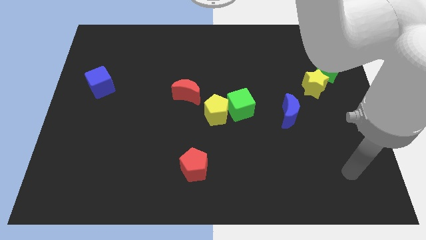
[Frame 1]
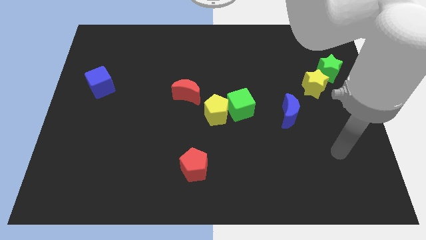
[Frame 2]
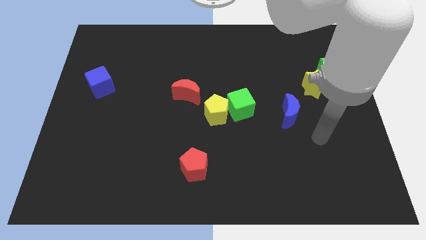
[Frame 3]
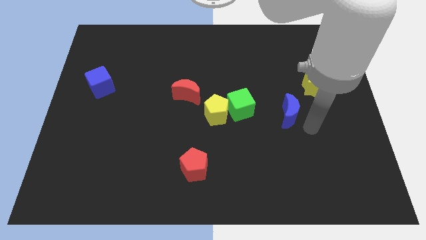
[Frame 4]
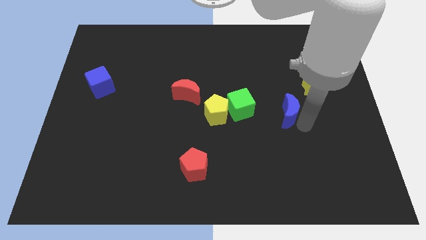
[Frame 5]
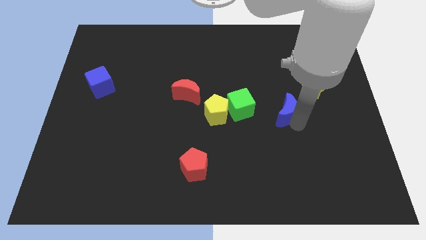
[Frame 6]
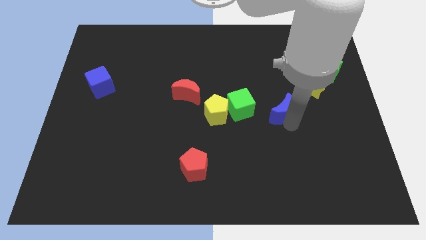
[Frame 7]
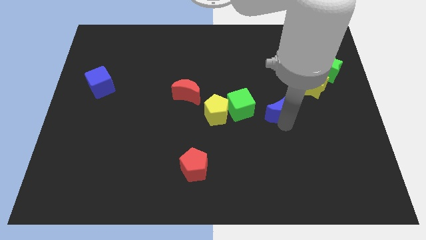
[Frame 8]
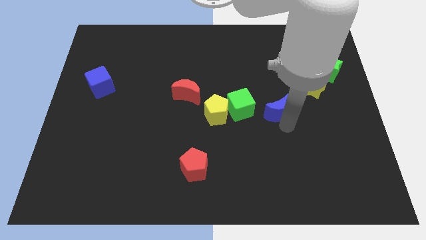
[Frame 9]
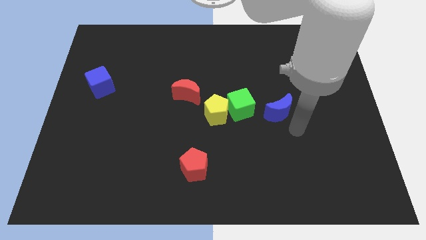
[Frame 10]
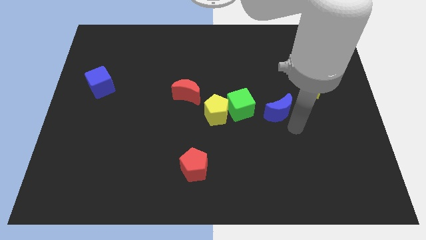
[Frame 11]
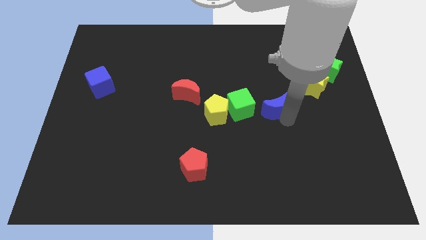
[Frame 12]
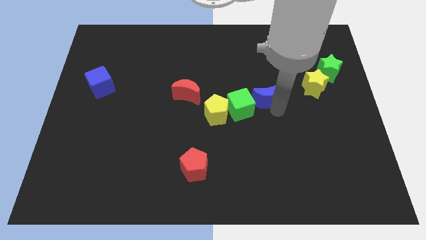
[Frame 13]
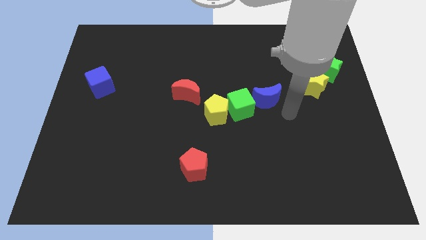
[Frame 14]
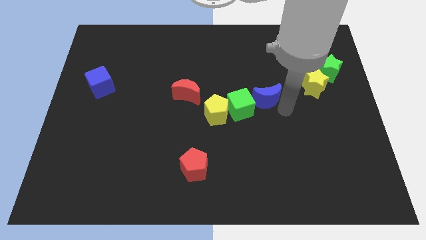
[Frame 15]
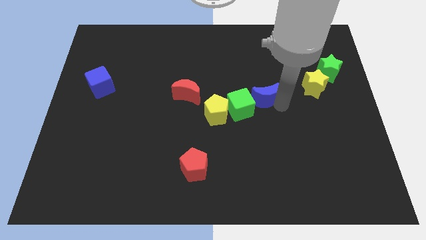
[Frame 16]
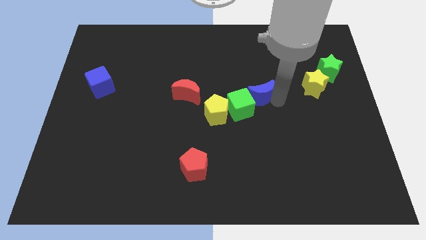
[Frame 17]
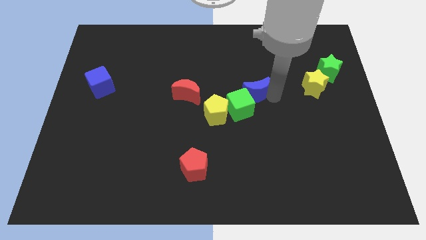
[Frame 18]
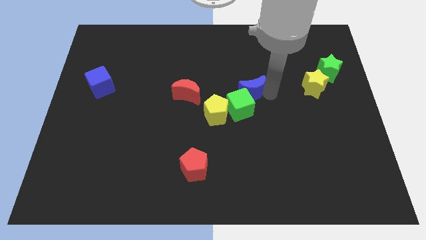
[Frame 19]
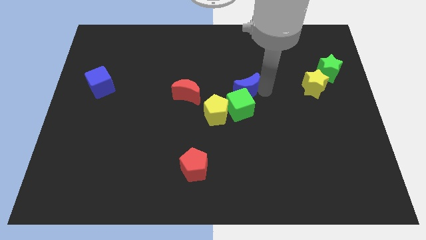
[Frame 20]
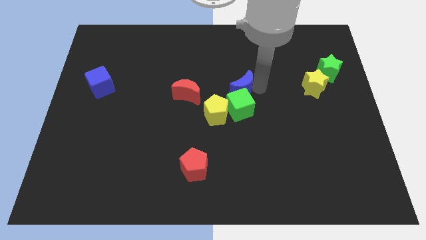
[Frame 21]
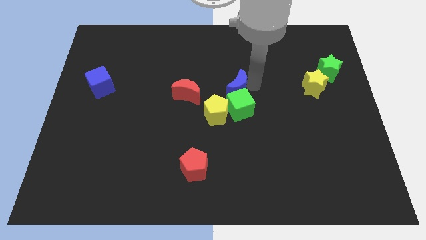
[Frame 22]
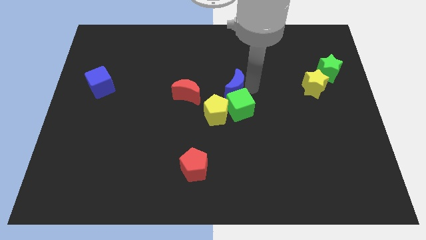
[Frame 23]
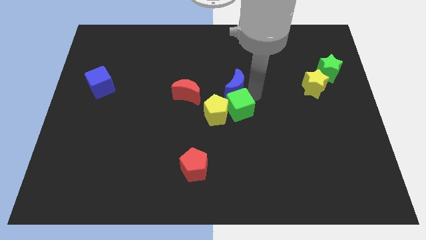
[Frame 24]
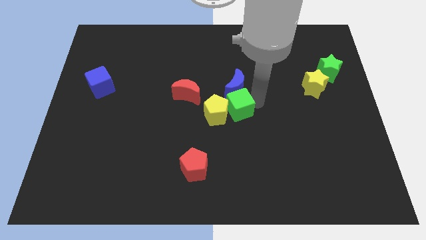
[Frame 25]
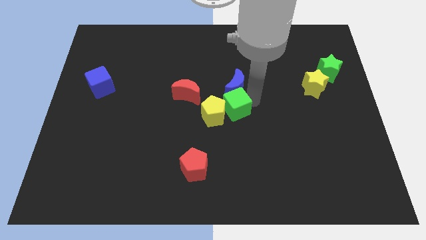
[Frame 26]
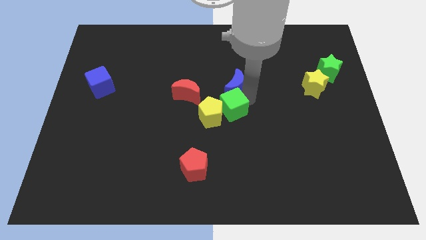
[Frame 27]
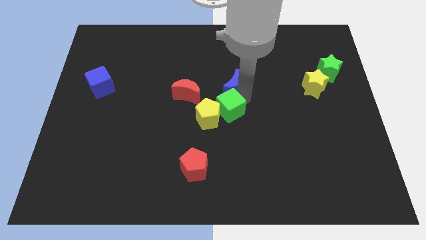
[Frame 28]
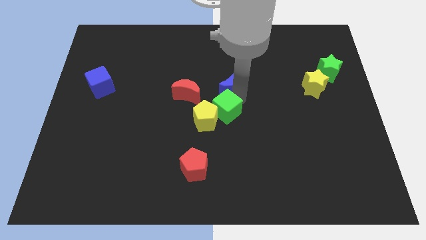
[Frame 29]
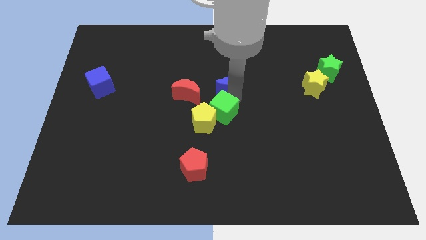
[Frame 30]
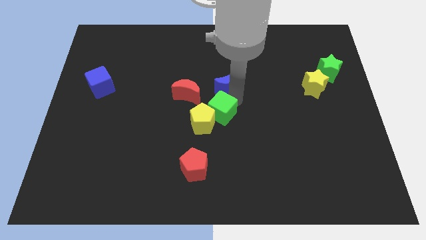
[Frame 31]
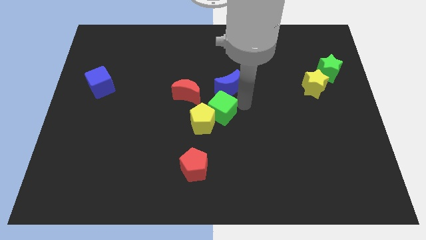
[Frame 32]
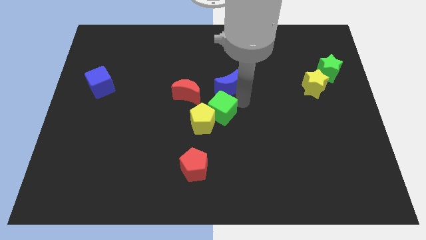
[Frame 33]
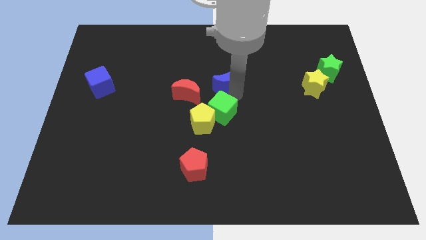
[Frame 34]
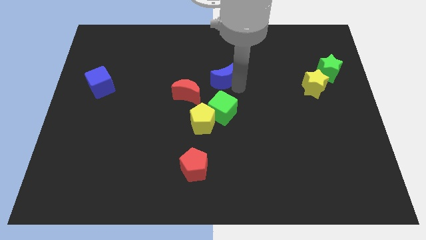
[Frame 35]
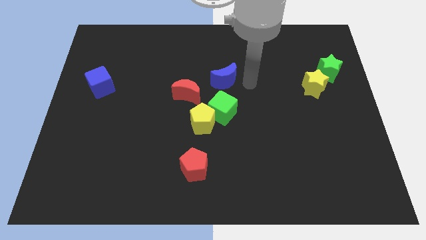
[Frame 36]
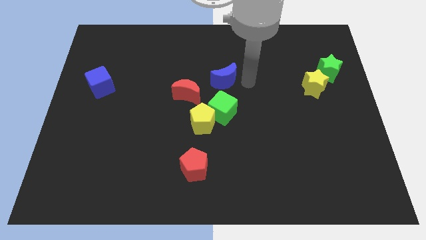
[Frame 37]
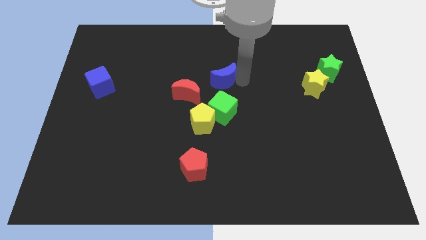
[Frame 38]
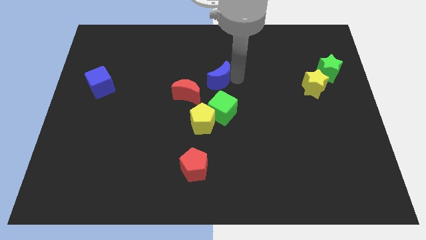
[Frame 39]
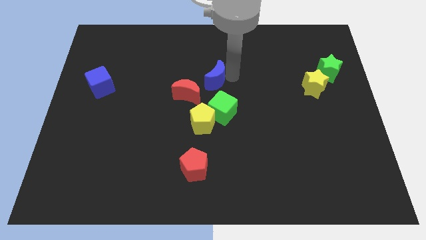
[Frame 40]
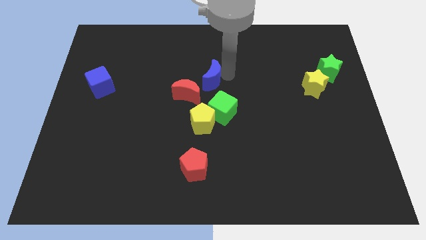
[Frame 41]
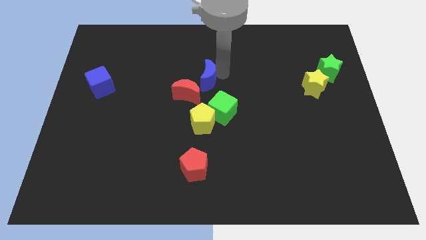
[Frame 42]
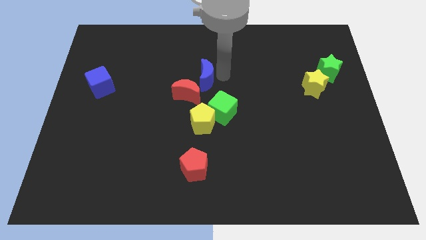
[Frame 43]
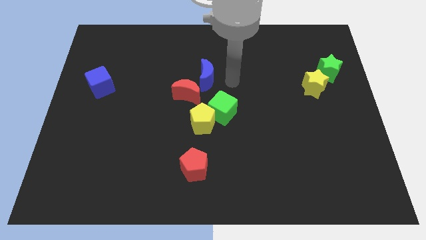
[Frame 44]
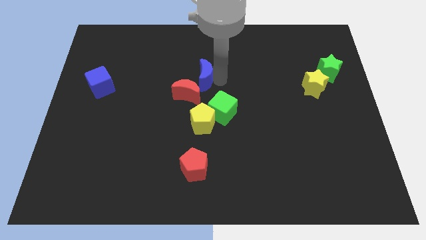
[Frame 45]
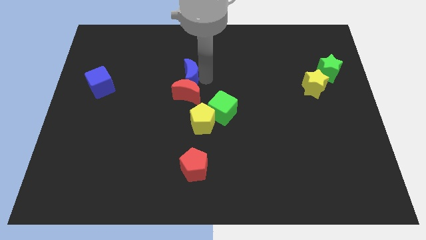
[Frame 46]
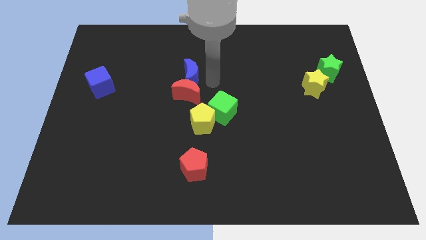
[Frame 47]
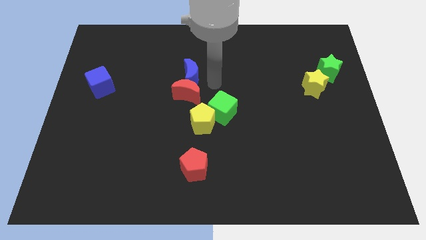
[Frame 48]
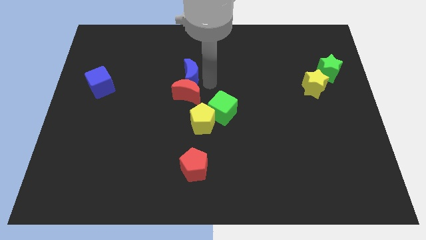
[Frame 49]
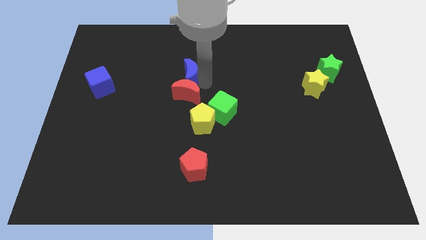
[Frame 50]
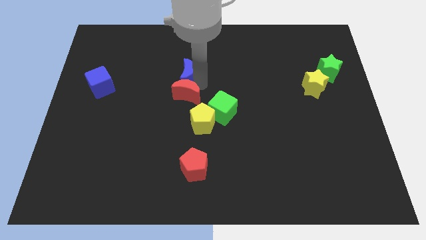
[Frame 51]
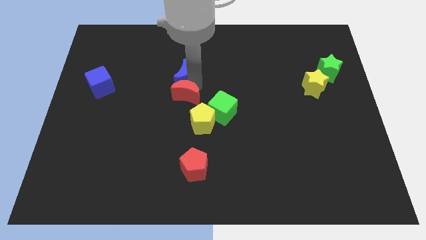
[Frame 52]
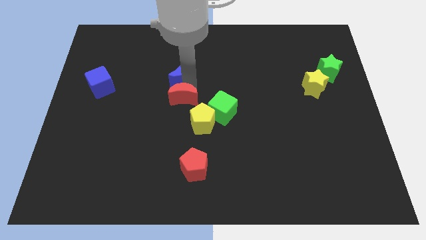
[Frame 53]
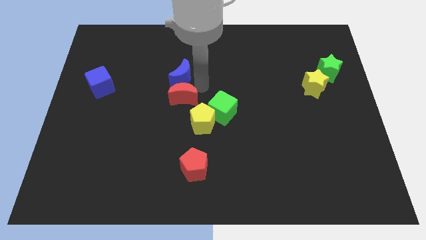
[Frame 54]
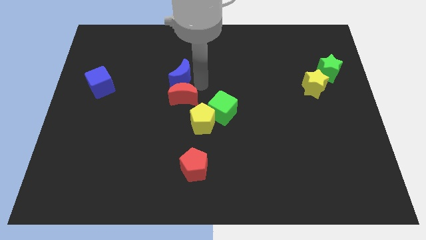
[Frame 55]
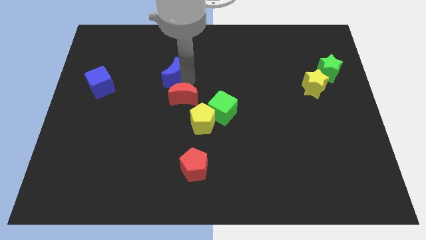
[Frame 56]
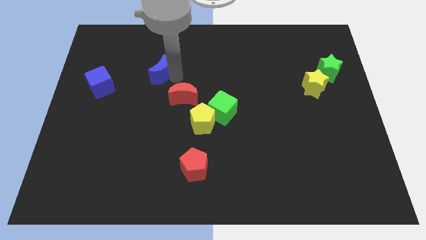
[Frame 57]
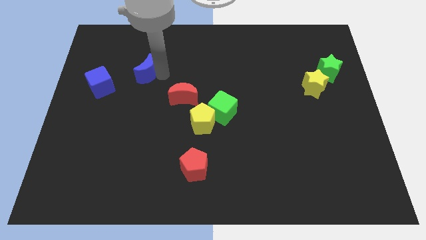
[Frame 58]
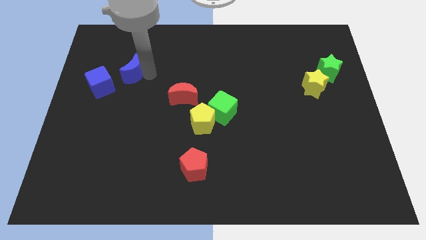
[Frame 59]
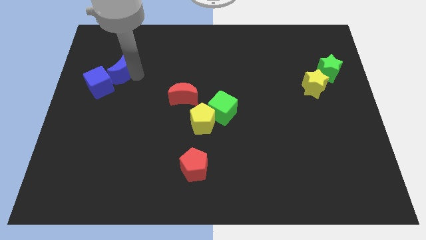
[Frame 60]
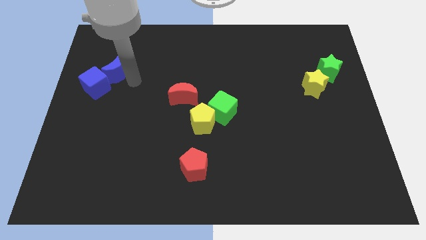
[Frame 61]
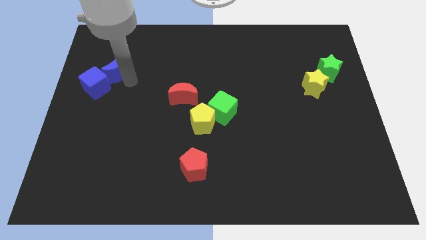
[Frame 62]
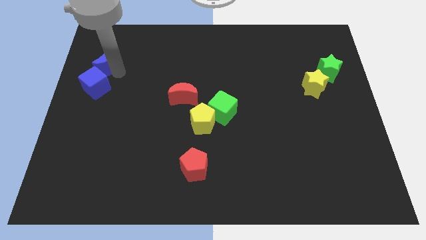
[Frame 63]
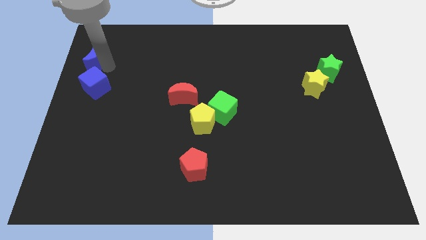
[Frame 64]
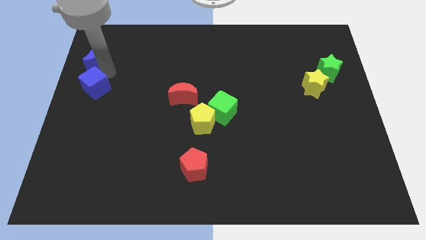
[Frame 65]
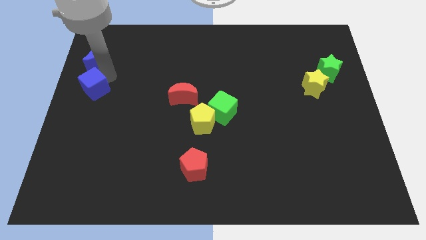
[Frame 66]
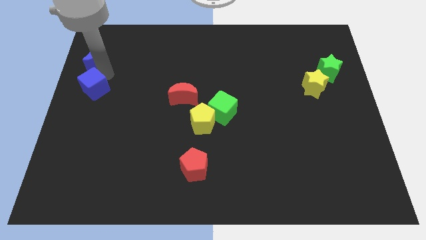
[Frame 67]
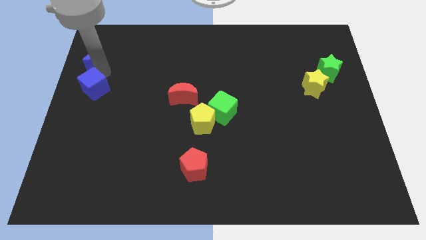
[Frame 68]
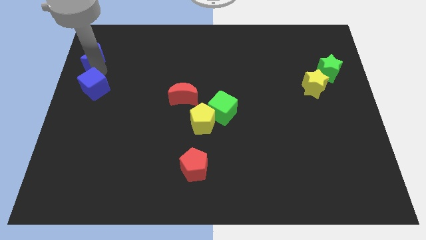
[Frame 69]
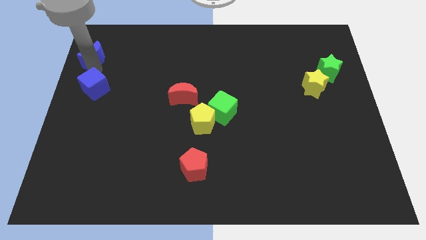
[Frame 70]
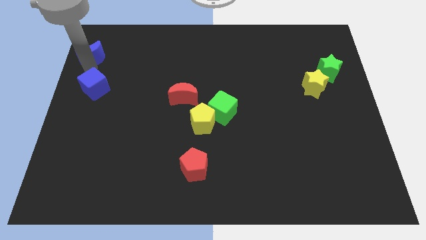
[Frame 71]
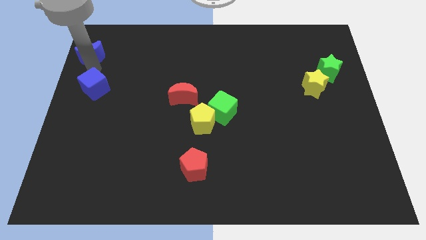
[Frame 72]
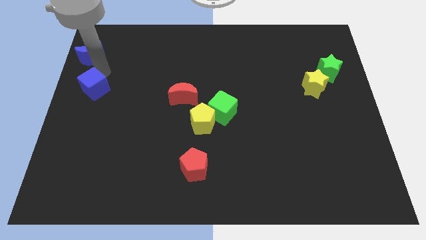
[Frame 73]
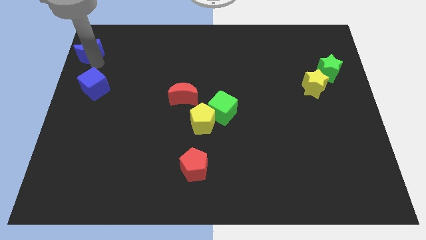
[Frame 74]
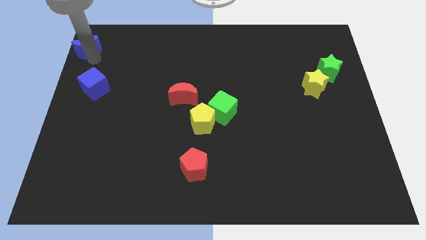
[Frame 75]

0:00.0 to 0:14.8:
put the blue moon to the top left corner
